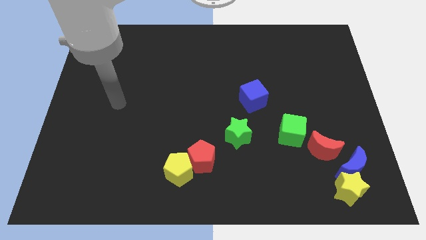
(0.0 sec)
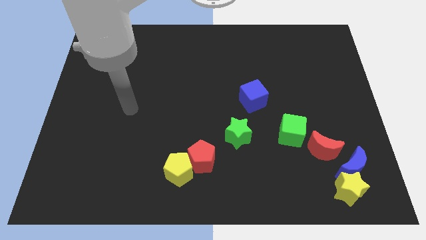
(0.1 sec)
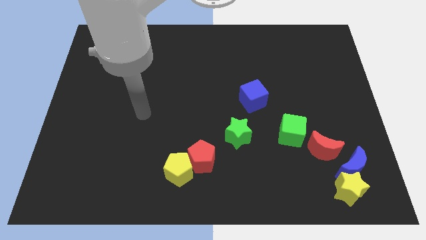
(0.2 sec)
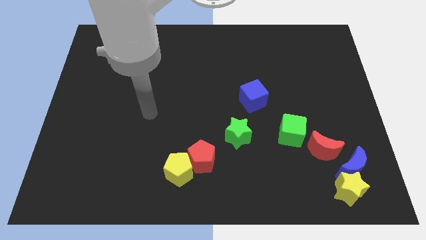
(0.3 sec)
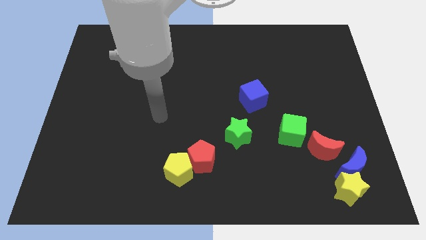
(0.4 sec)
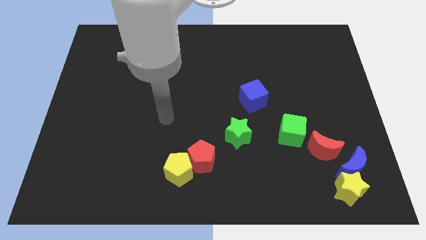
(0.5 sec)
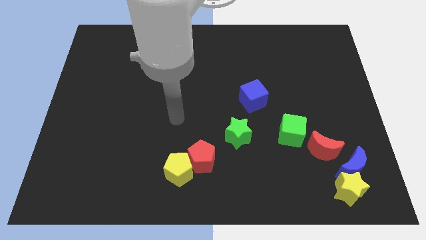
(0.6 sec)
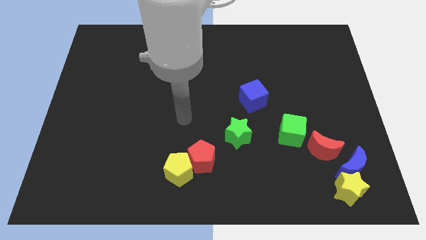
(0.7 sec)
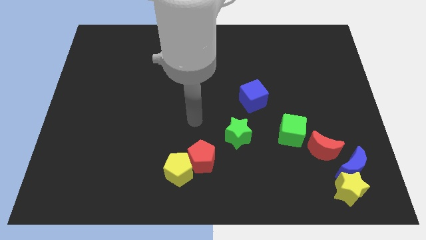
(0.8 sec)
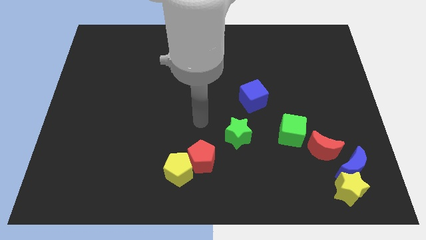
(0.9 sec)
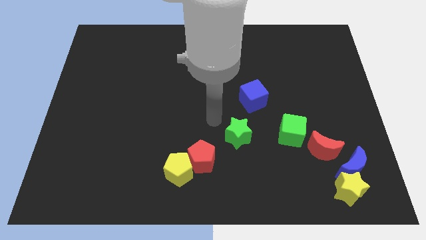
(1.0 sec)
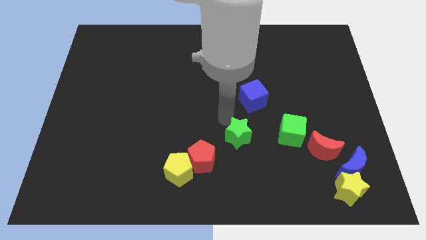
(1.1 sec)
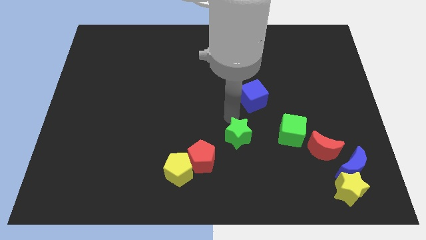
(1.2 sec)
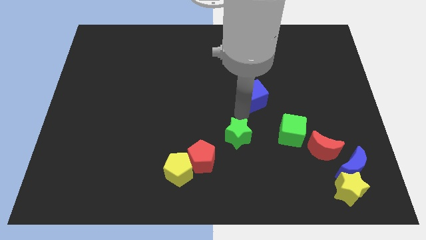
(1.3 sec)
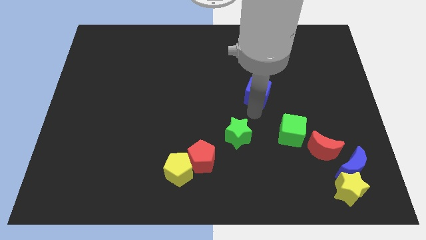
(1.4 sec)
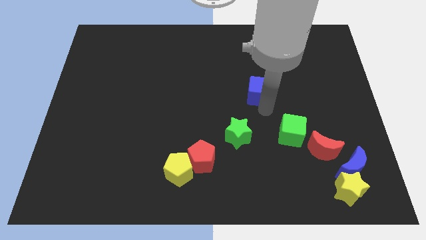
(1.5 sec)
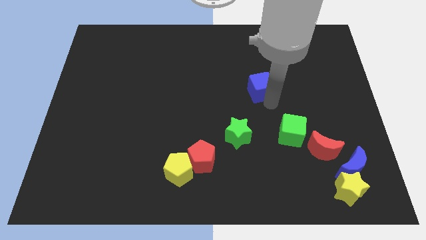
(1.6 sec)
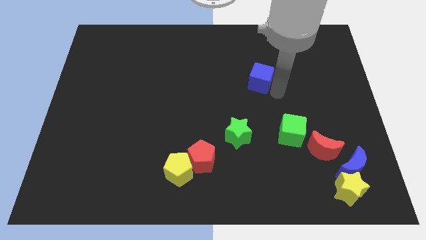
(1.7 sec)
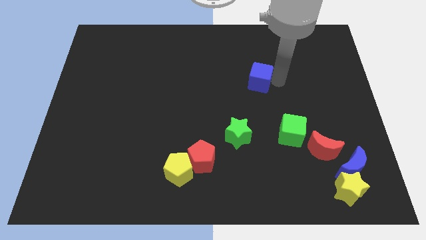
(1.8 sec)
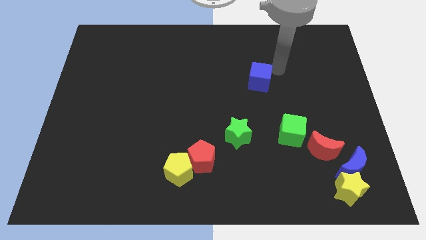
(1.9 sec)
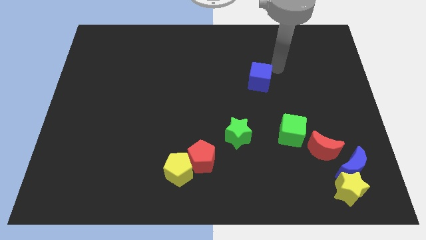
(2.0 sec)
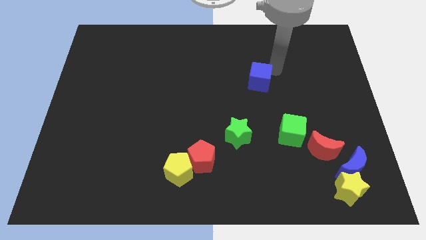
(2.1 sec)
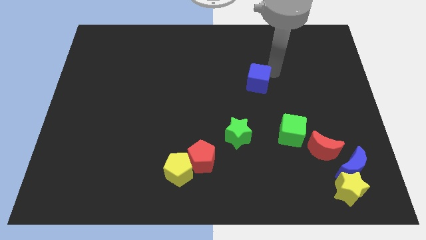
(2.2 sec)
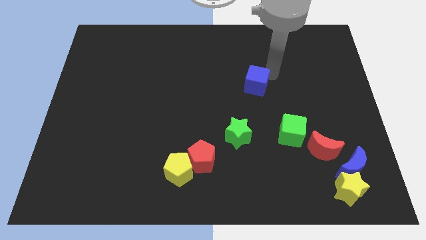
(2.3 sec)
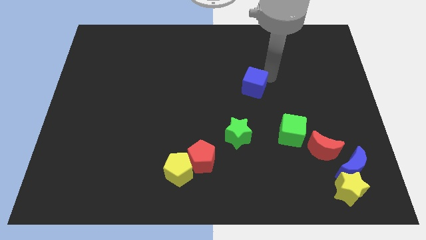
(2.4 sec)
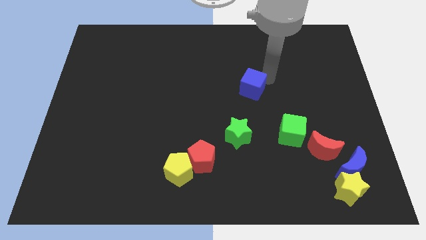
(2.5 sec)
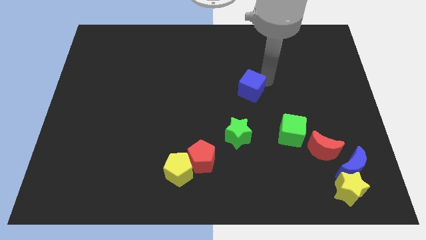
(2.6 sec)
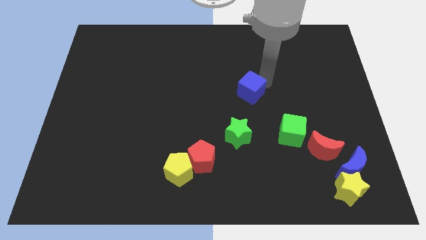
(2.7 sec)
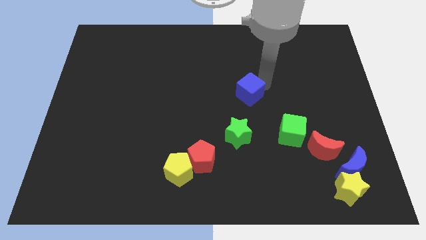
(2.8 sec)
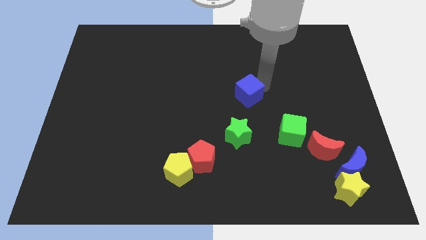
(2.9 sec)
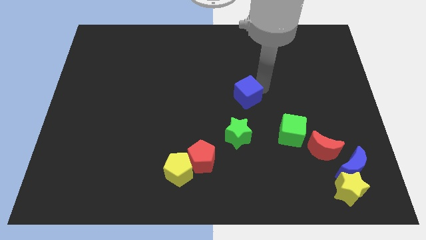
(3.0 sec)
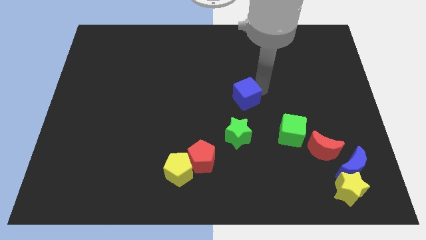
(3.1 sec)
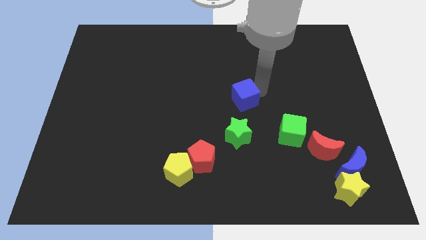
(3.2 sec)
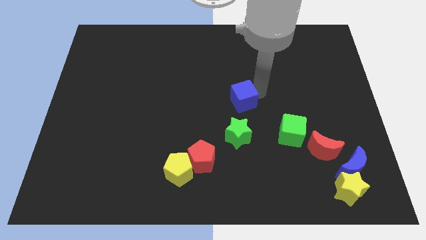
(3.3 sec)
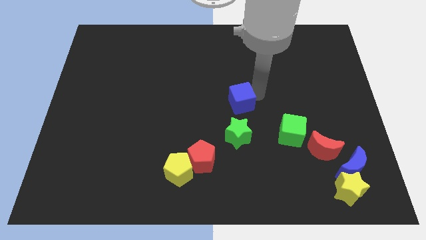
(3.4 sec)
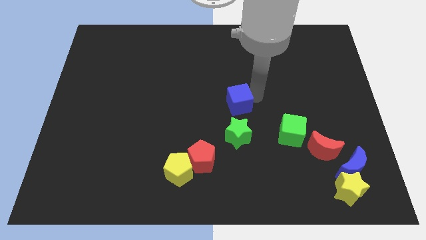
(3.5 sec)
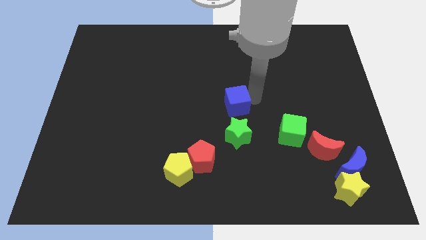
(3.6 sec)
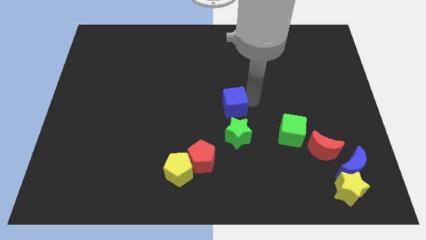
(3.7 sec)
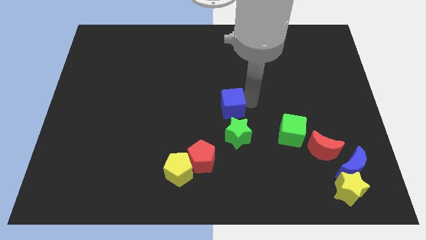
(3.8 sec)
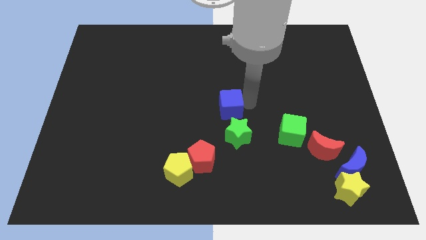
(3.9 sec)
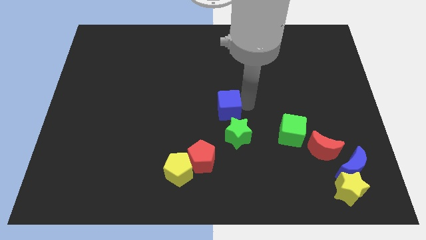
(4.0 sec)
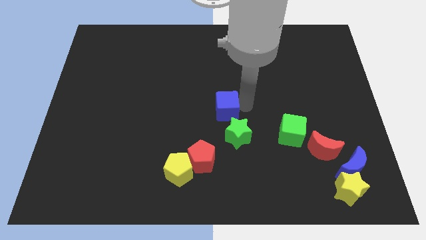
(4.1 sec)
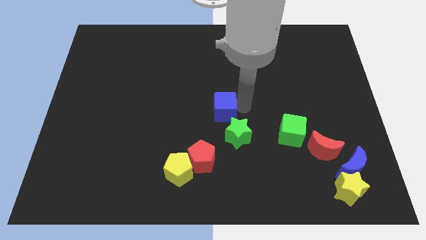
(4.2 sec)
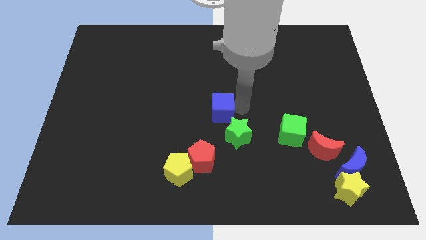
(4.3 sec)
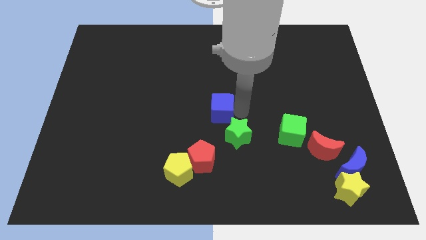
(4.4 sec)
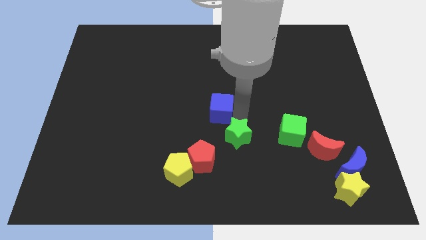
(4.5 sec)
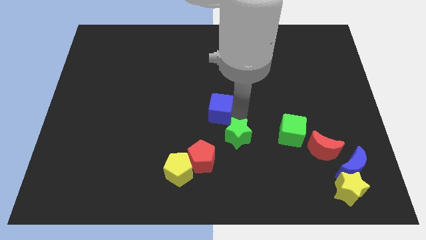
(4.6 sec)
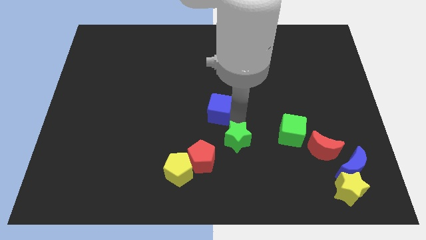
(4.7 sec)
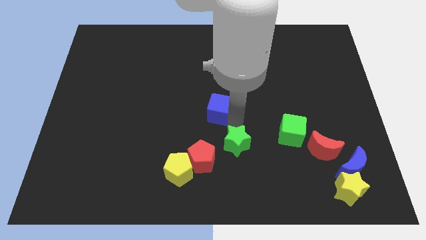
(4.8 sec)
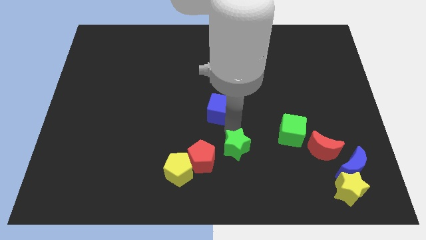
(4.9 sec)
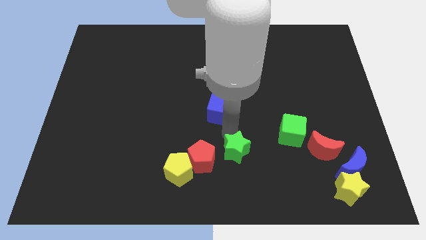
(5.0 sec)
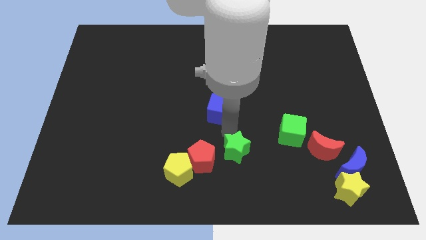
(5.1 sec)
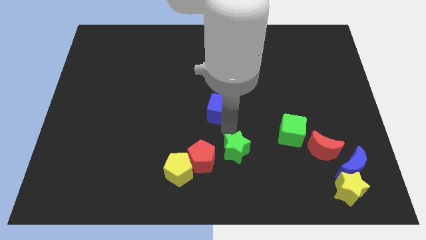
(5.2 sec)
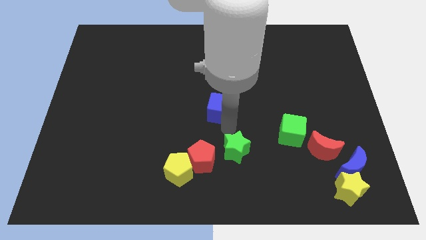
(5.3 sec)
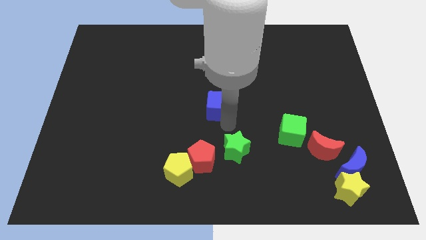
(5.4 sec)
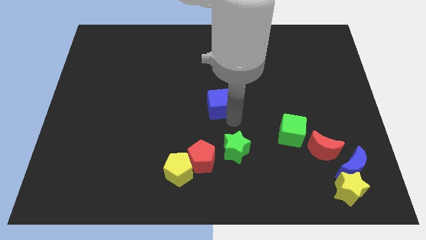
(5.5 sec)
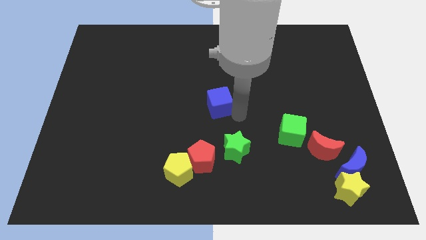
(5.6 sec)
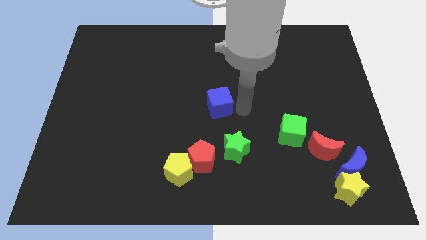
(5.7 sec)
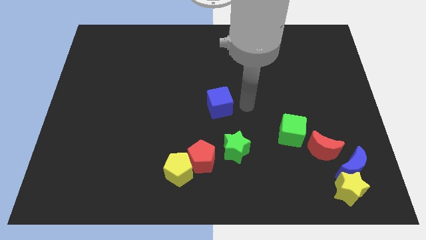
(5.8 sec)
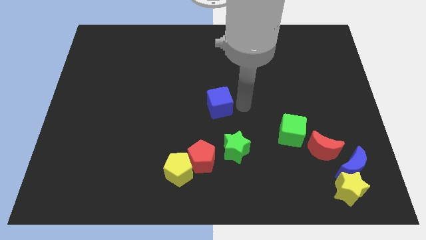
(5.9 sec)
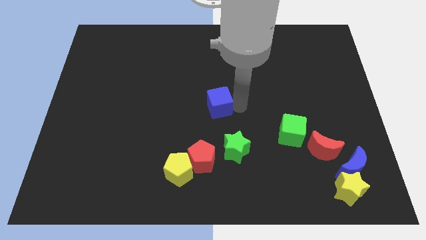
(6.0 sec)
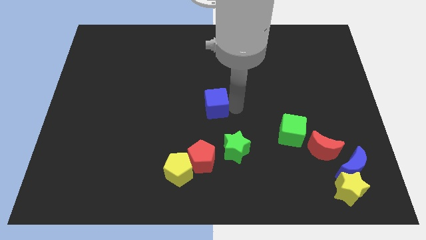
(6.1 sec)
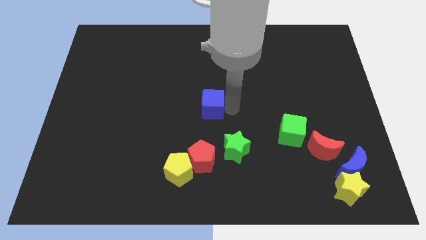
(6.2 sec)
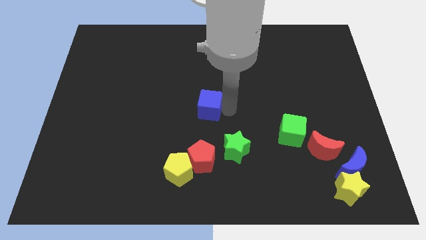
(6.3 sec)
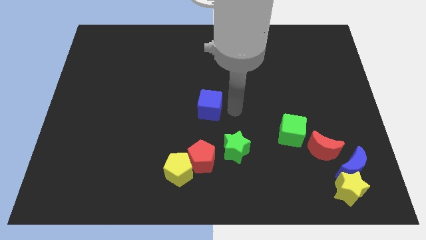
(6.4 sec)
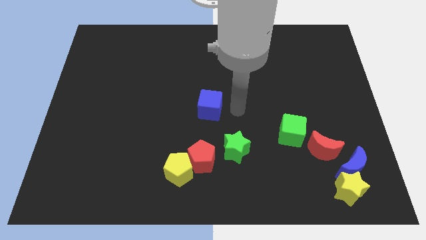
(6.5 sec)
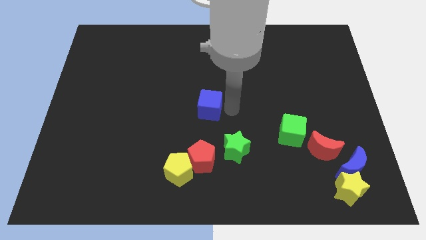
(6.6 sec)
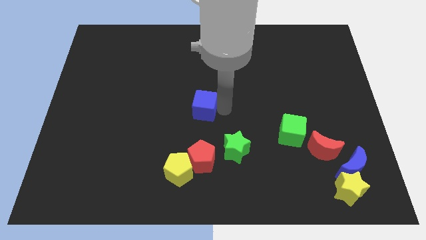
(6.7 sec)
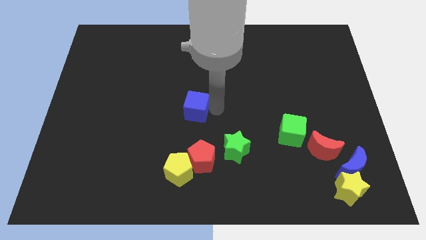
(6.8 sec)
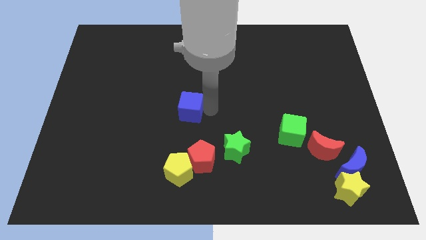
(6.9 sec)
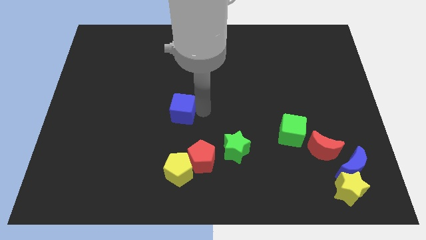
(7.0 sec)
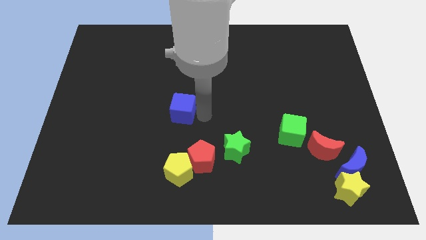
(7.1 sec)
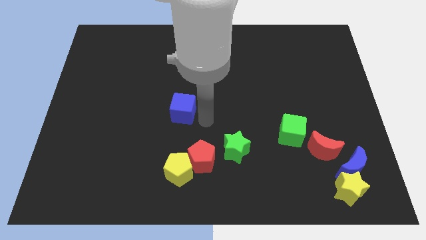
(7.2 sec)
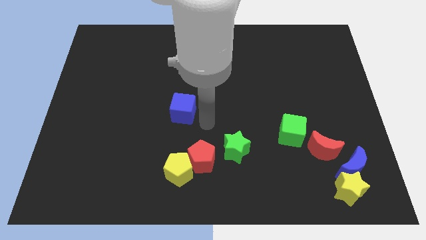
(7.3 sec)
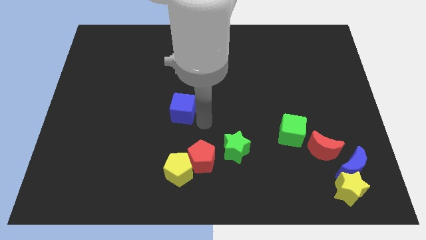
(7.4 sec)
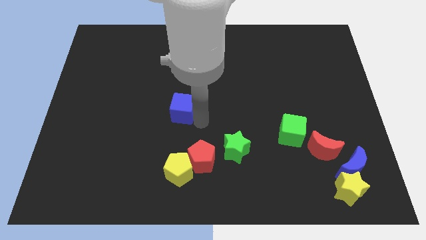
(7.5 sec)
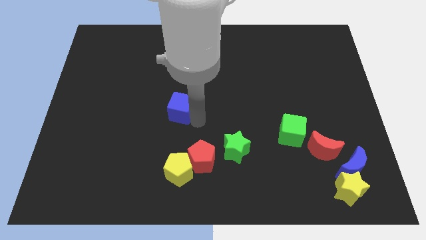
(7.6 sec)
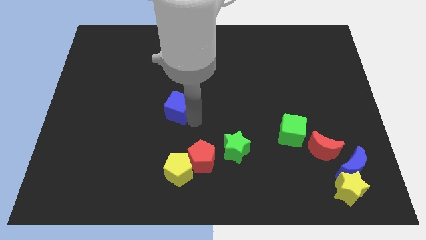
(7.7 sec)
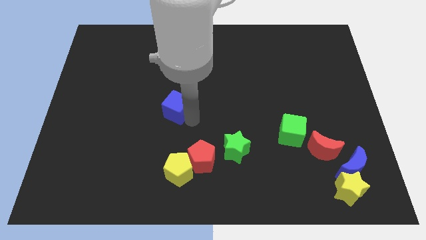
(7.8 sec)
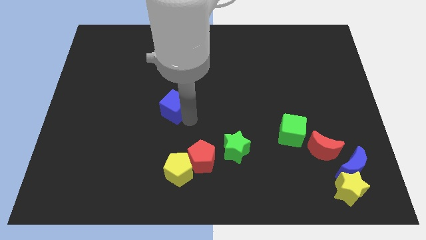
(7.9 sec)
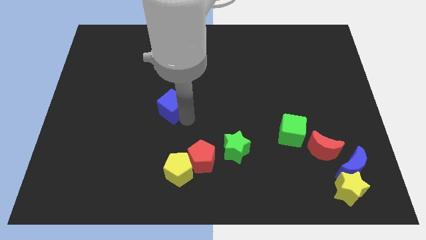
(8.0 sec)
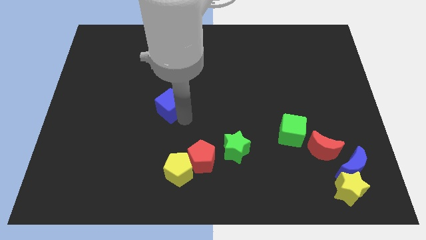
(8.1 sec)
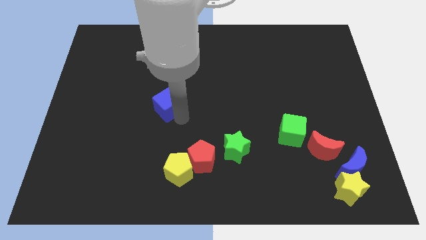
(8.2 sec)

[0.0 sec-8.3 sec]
push the blue cube left
